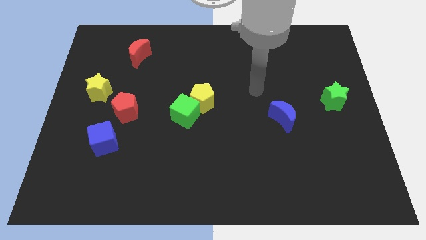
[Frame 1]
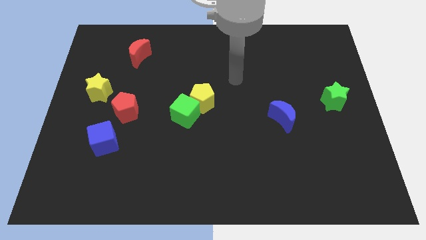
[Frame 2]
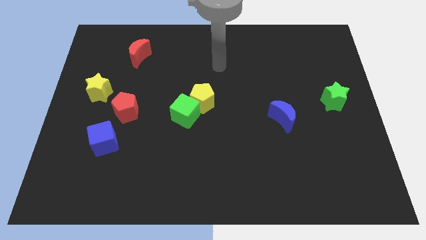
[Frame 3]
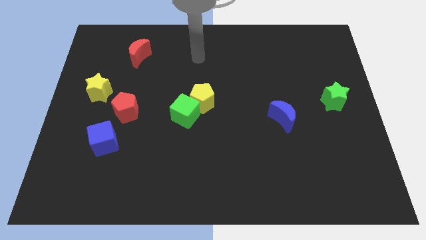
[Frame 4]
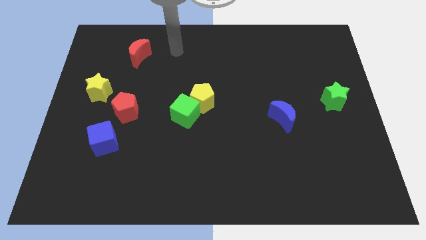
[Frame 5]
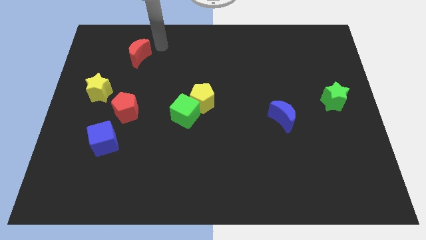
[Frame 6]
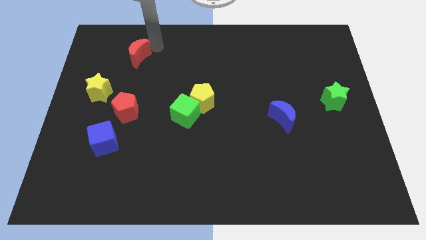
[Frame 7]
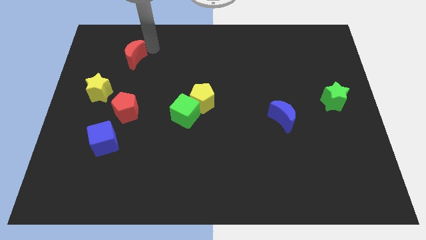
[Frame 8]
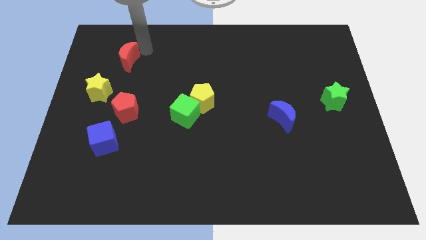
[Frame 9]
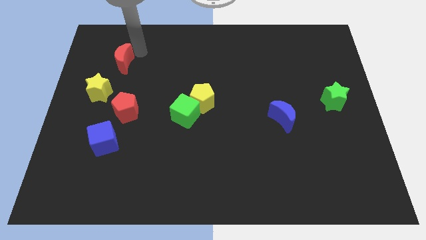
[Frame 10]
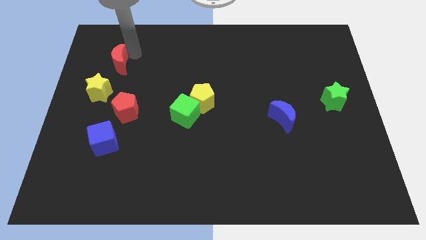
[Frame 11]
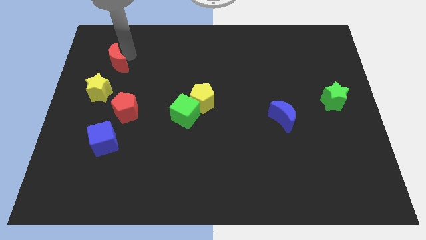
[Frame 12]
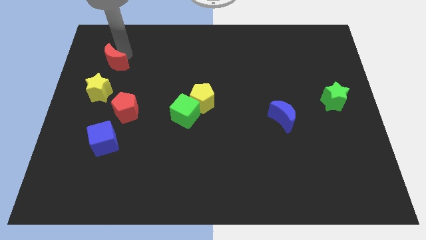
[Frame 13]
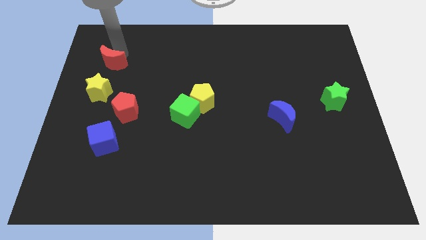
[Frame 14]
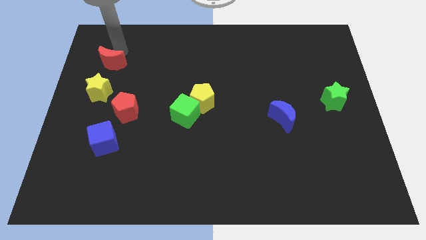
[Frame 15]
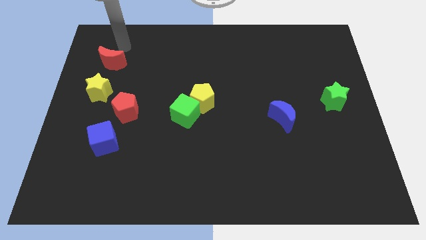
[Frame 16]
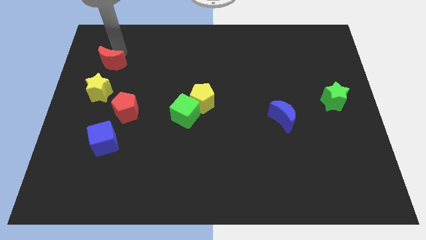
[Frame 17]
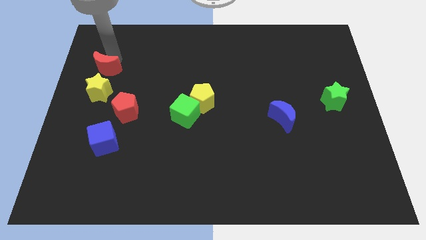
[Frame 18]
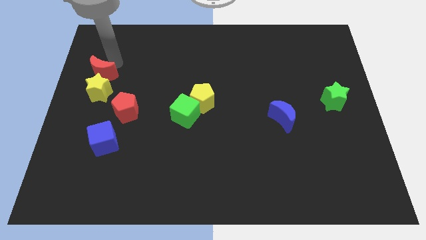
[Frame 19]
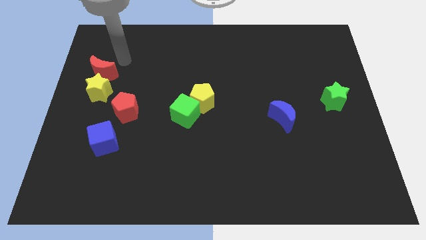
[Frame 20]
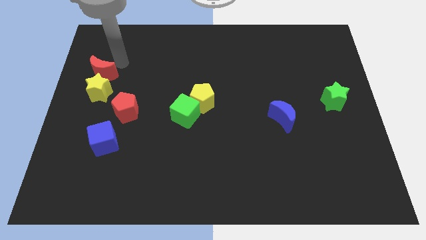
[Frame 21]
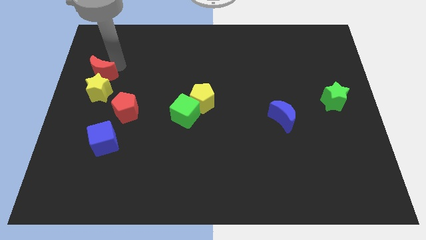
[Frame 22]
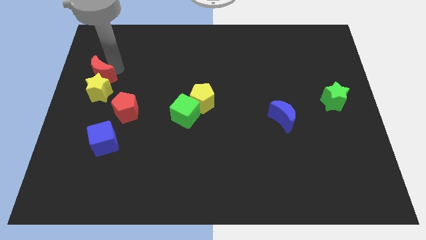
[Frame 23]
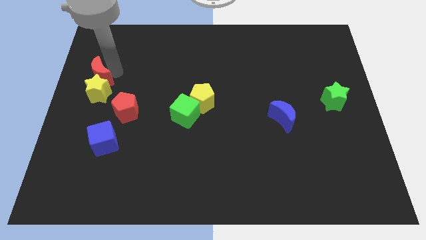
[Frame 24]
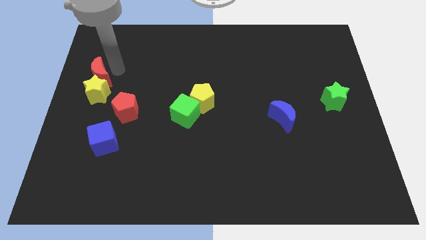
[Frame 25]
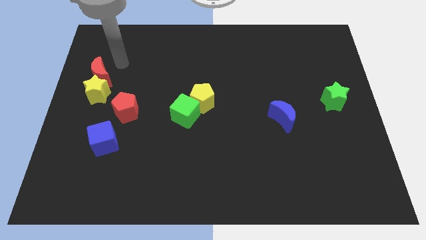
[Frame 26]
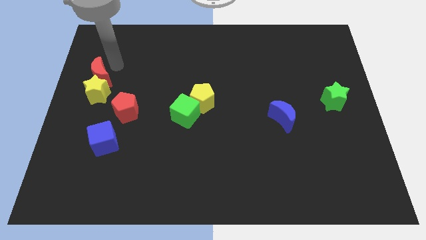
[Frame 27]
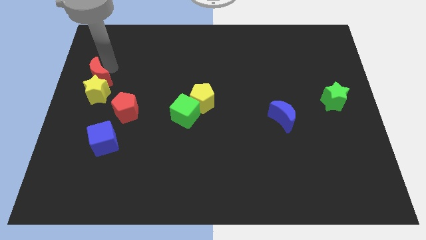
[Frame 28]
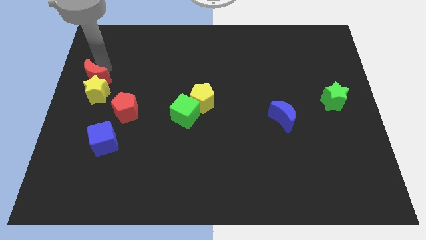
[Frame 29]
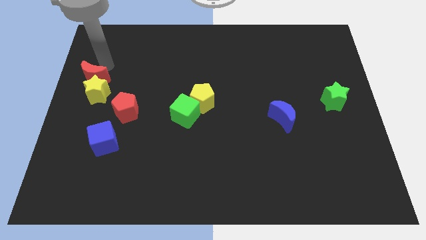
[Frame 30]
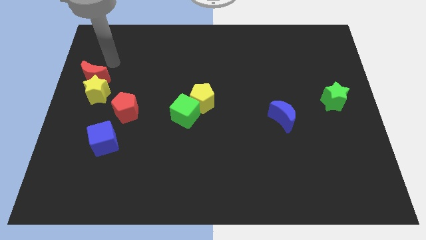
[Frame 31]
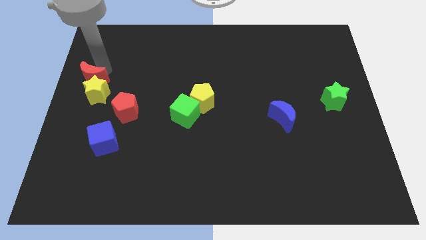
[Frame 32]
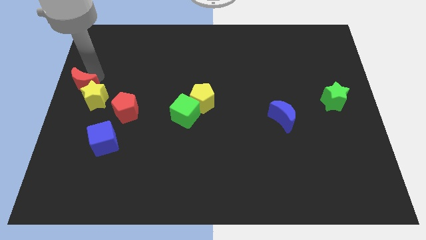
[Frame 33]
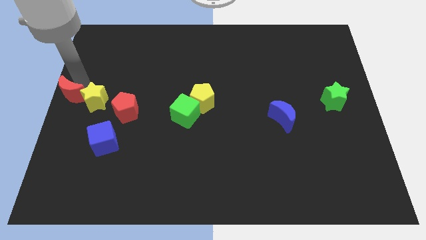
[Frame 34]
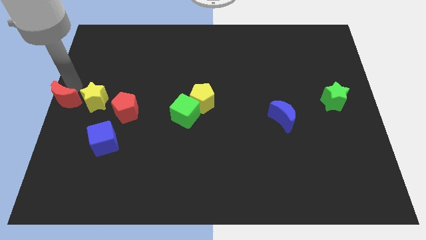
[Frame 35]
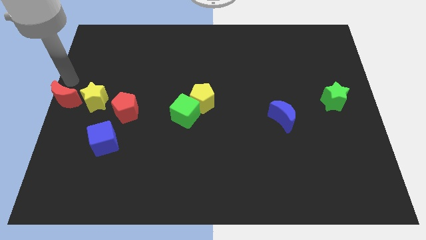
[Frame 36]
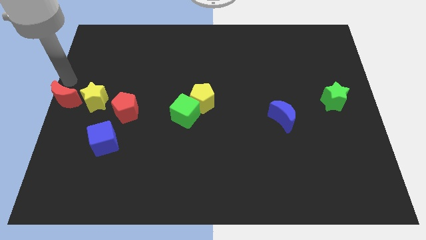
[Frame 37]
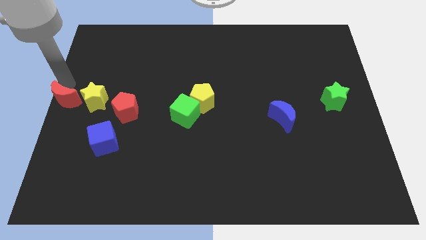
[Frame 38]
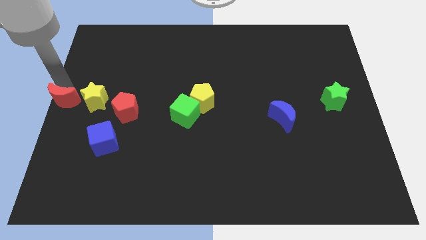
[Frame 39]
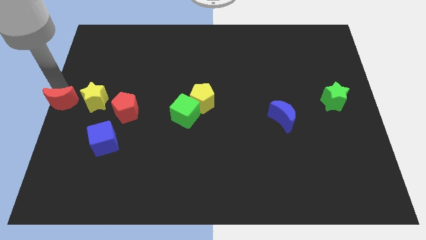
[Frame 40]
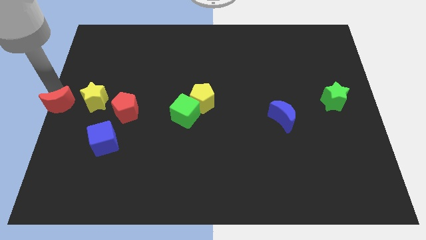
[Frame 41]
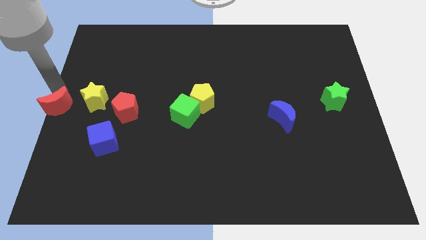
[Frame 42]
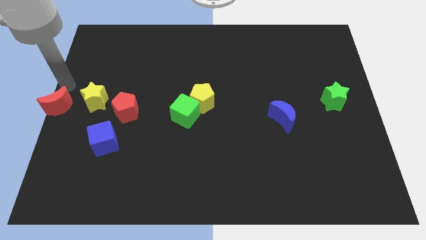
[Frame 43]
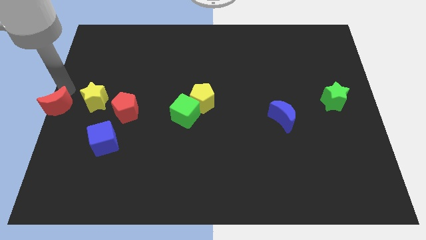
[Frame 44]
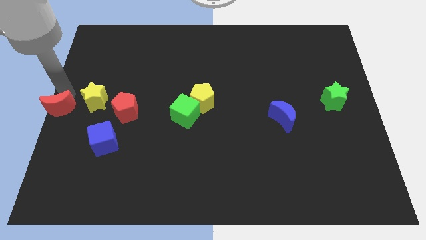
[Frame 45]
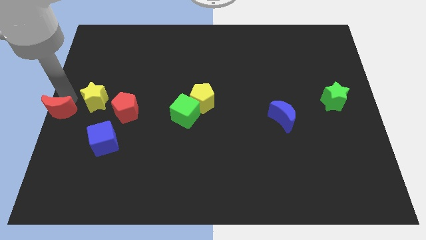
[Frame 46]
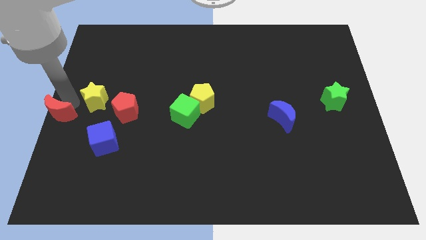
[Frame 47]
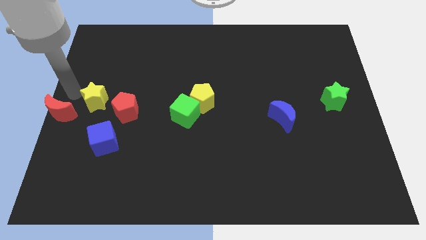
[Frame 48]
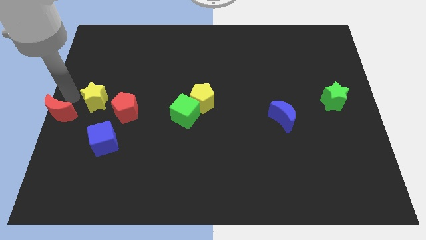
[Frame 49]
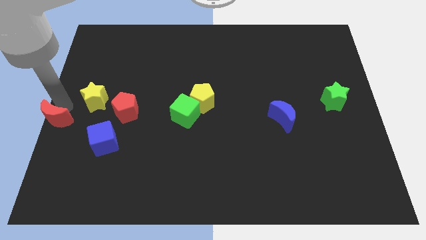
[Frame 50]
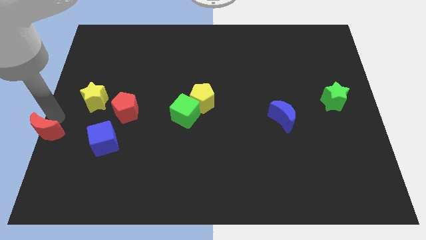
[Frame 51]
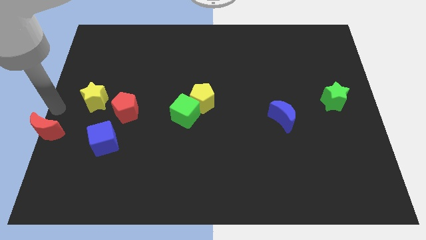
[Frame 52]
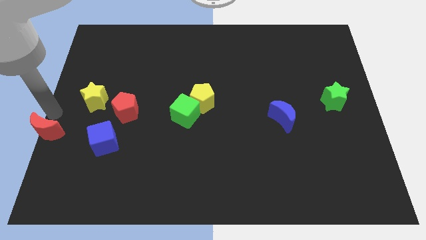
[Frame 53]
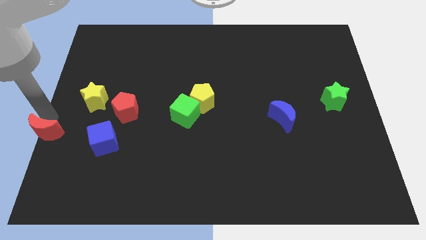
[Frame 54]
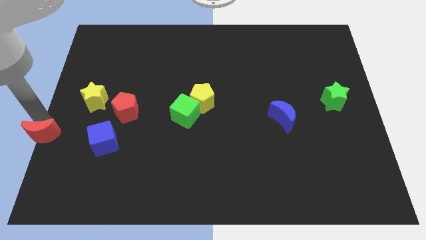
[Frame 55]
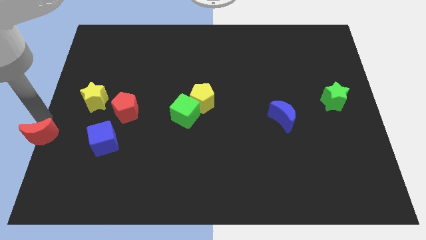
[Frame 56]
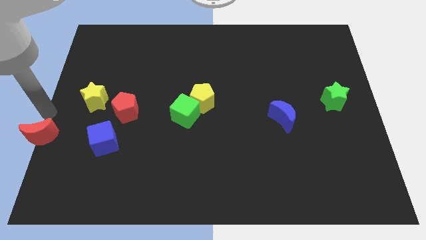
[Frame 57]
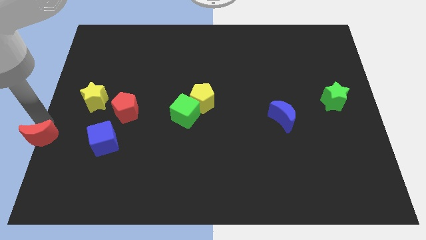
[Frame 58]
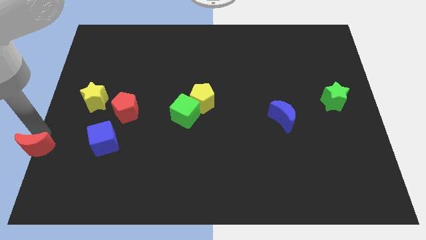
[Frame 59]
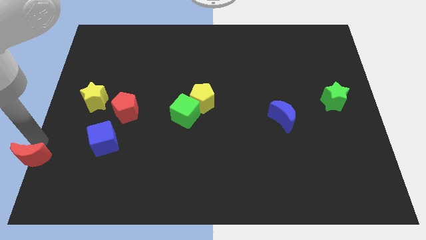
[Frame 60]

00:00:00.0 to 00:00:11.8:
slide the red moon to the bottom left of the board

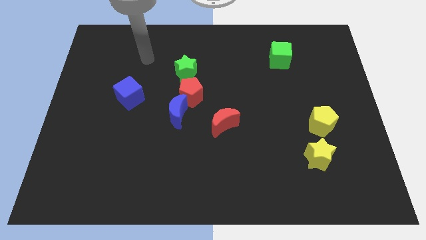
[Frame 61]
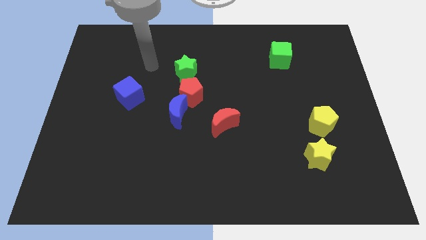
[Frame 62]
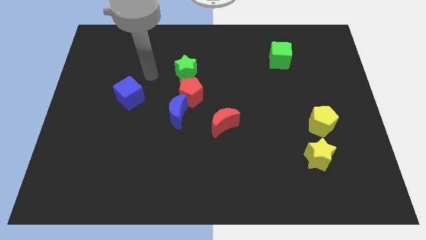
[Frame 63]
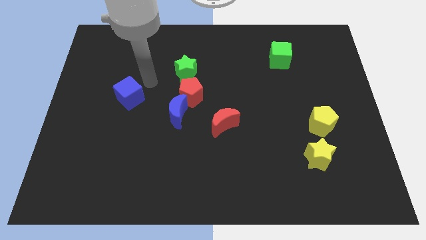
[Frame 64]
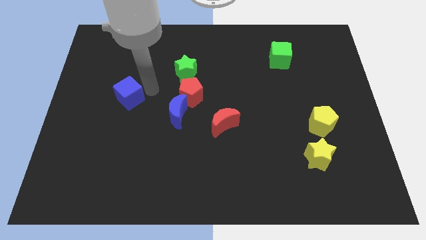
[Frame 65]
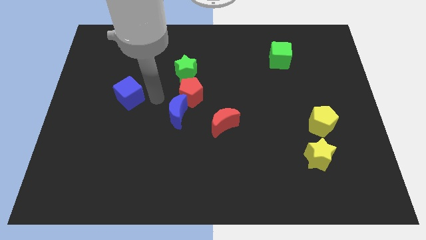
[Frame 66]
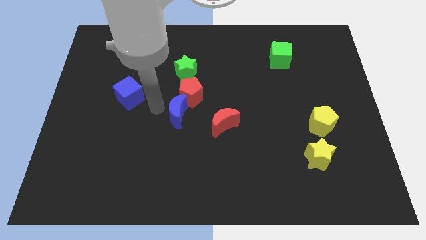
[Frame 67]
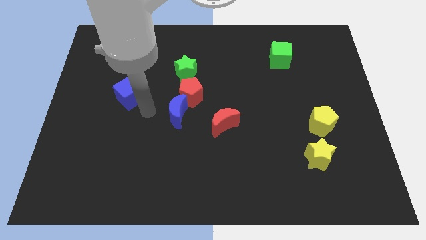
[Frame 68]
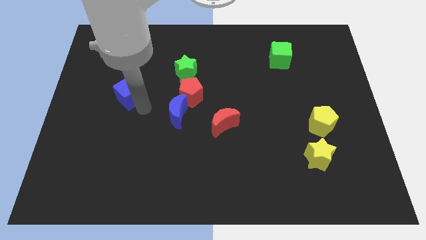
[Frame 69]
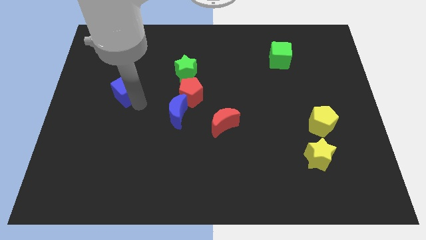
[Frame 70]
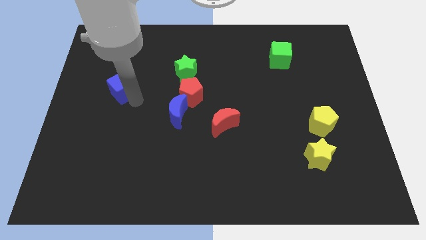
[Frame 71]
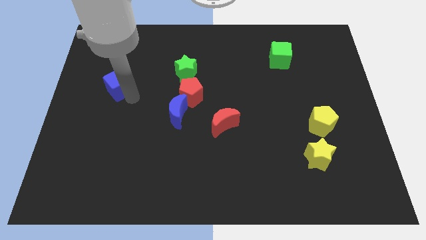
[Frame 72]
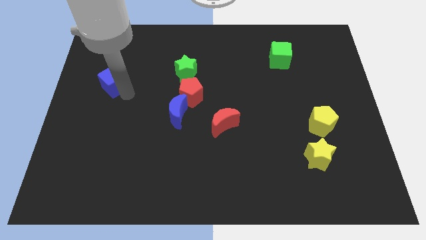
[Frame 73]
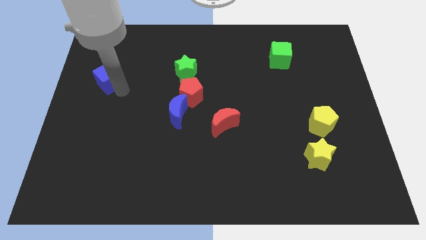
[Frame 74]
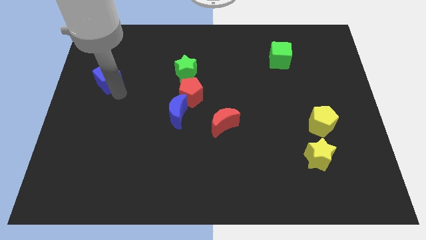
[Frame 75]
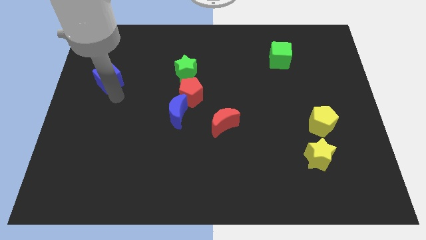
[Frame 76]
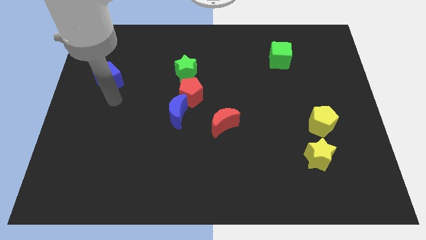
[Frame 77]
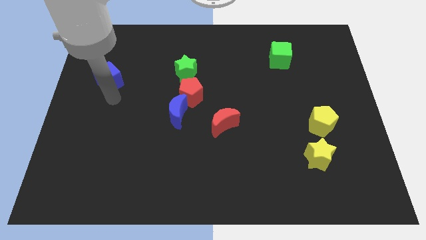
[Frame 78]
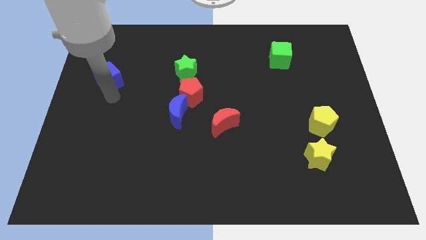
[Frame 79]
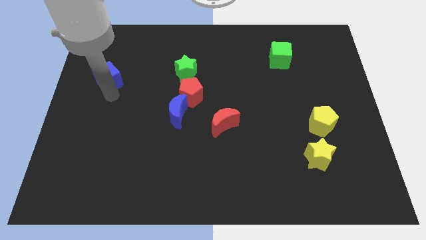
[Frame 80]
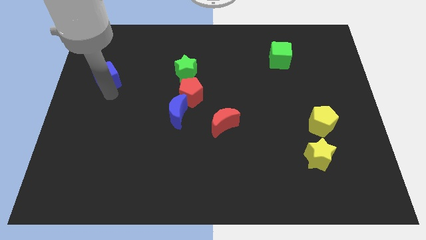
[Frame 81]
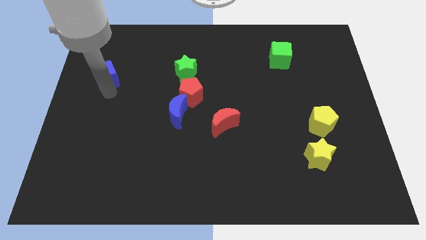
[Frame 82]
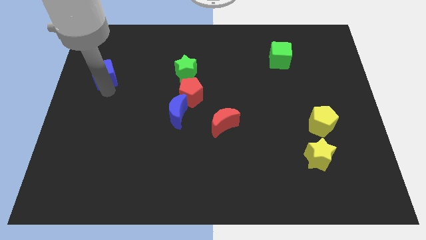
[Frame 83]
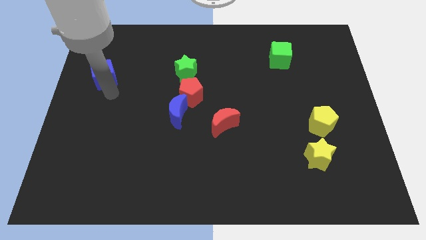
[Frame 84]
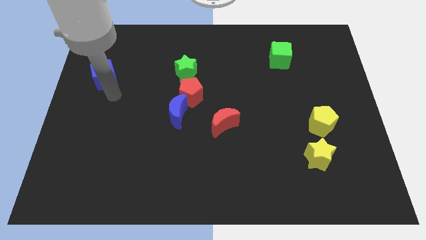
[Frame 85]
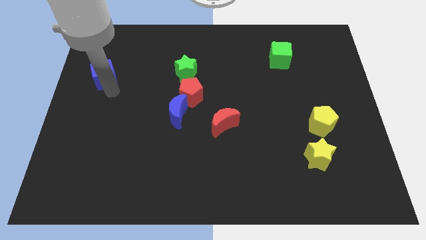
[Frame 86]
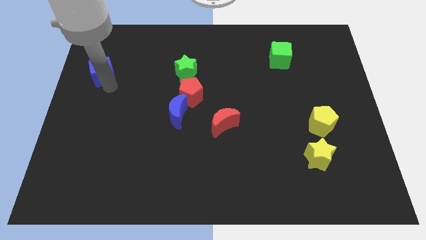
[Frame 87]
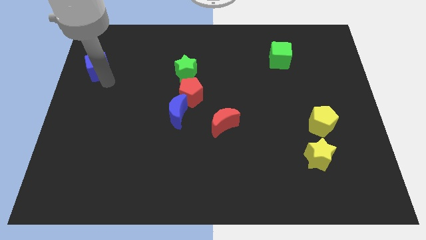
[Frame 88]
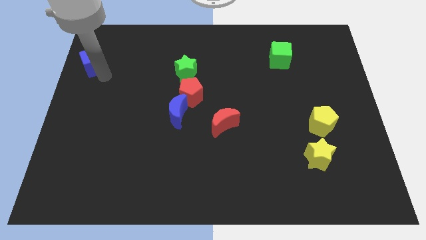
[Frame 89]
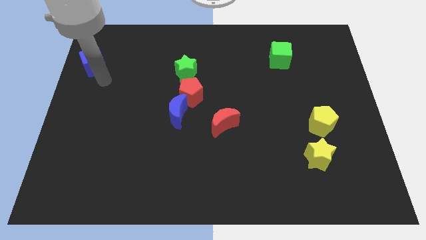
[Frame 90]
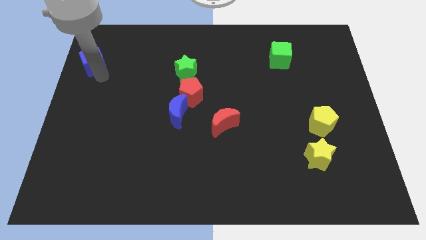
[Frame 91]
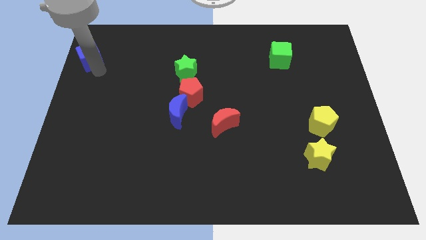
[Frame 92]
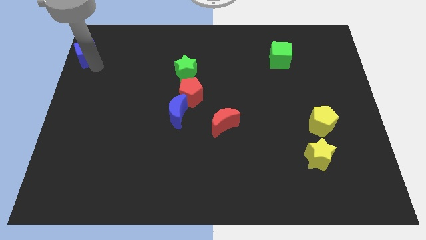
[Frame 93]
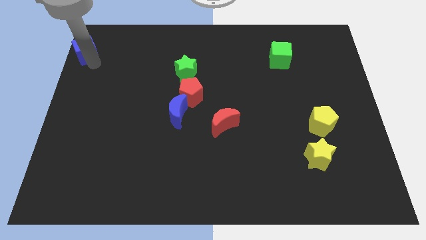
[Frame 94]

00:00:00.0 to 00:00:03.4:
move the blue cube to the top left of the board
